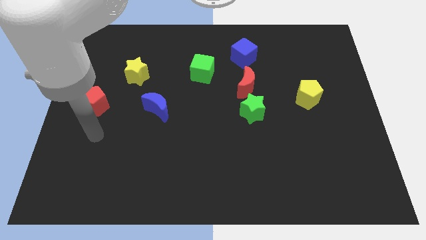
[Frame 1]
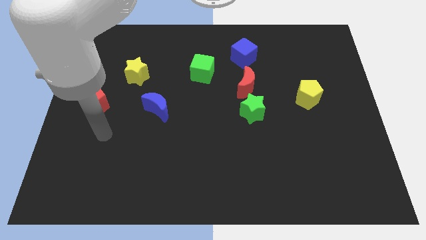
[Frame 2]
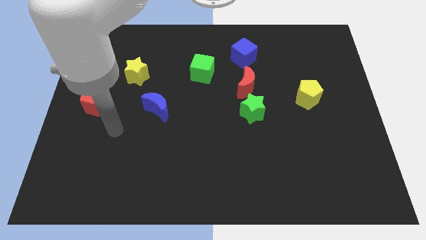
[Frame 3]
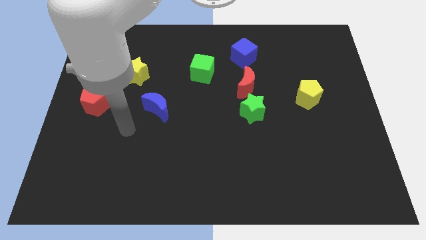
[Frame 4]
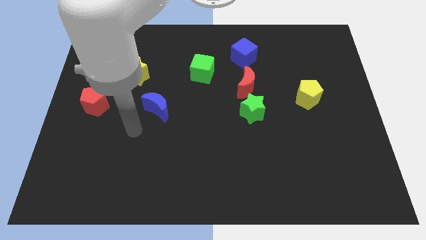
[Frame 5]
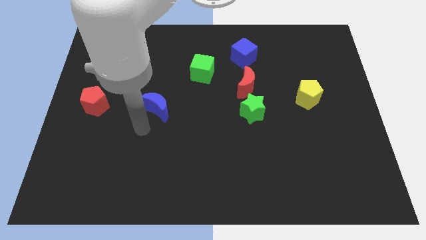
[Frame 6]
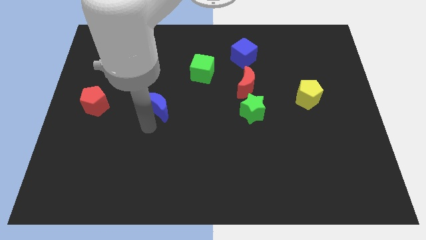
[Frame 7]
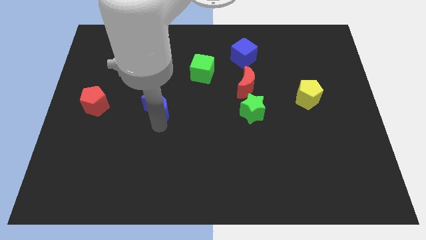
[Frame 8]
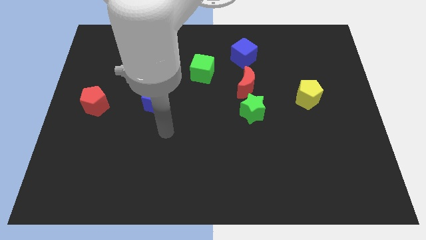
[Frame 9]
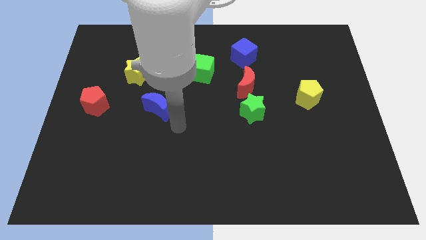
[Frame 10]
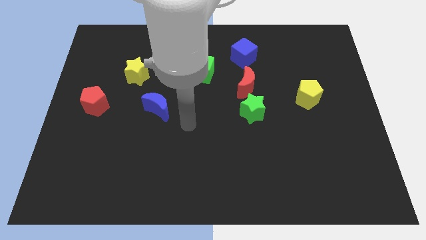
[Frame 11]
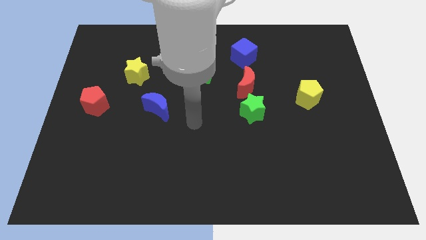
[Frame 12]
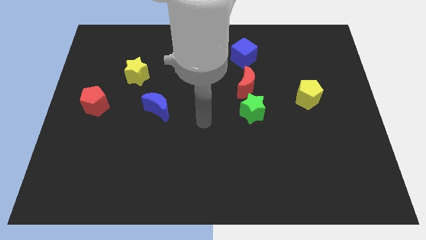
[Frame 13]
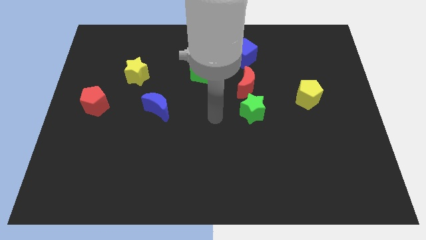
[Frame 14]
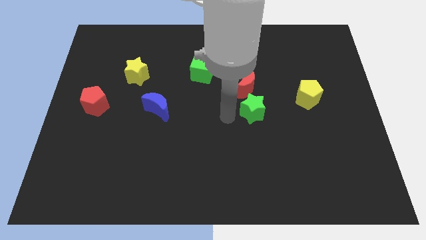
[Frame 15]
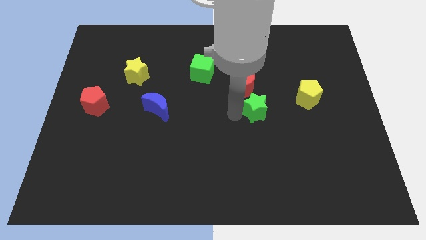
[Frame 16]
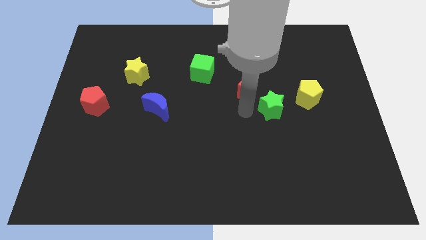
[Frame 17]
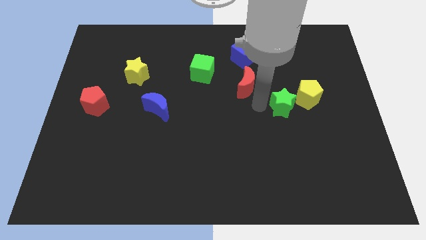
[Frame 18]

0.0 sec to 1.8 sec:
separate the red moon from the green star

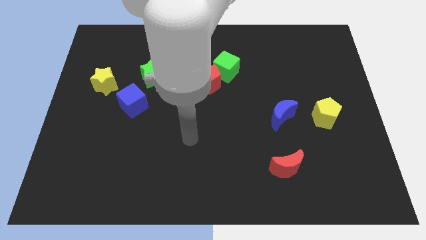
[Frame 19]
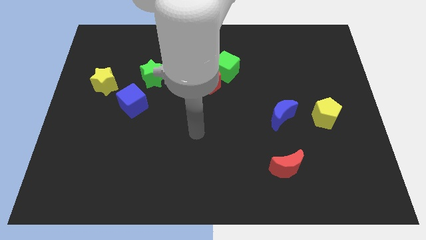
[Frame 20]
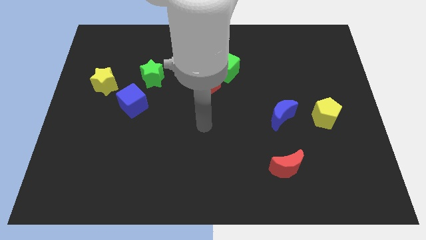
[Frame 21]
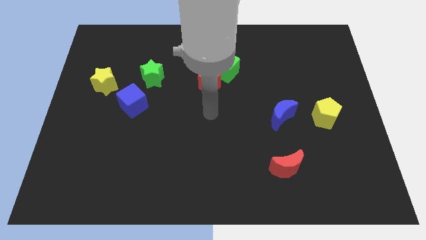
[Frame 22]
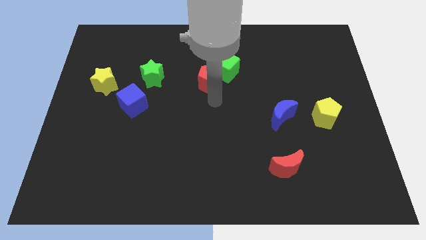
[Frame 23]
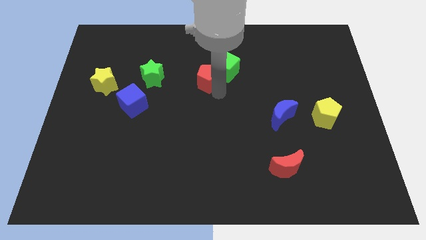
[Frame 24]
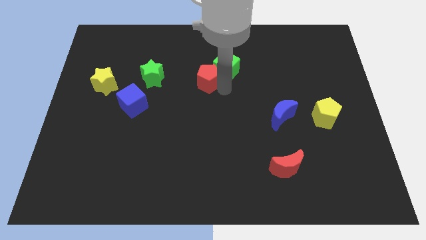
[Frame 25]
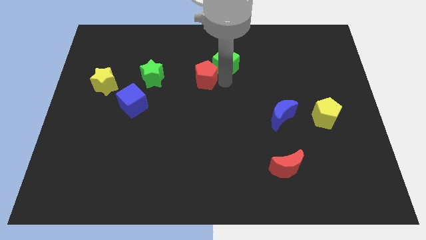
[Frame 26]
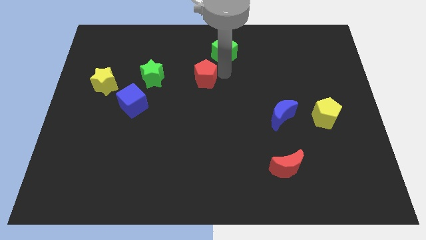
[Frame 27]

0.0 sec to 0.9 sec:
separate the red pentagon from the green cube

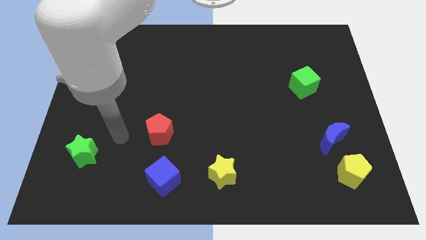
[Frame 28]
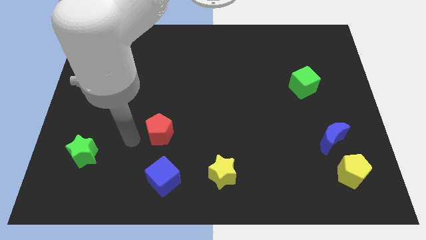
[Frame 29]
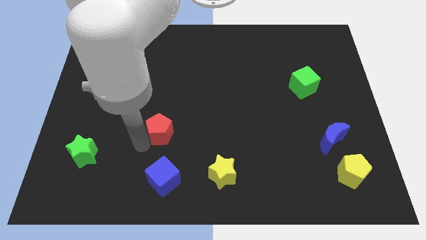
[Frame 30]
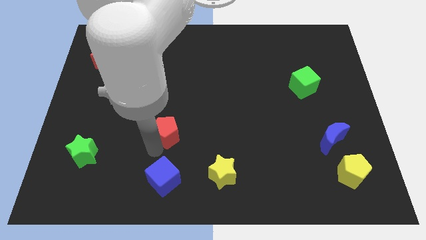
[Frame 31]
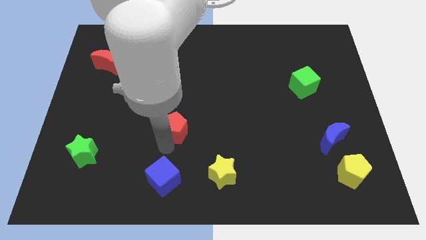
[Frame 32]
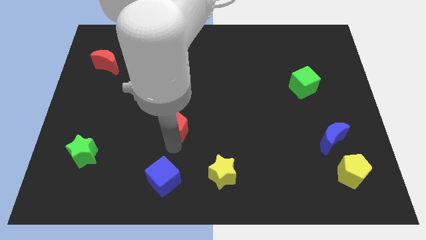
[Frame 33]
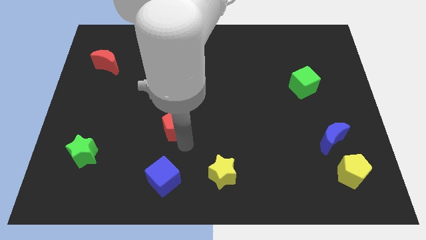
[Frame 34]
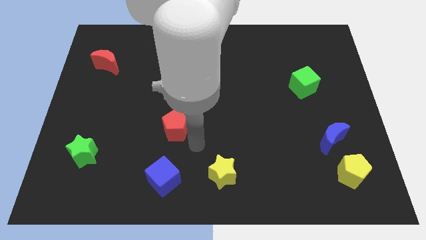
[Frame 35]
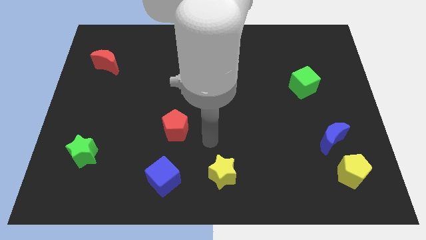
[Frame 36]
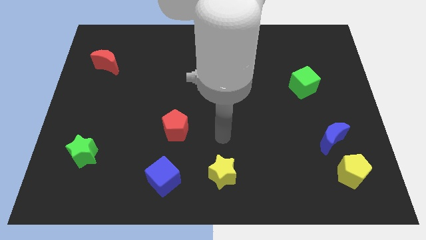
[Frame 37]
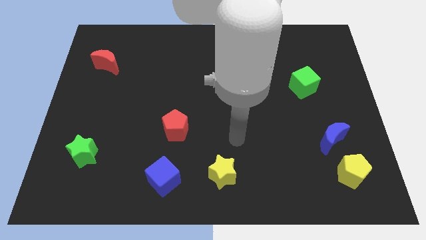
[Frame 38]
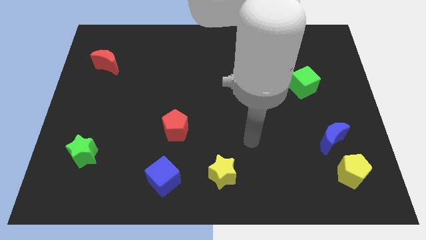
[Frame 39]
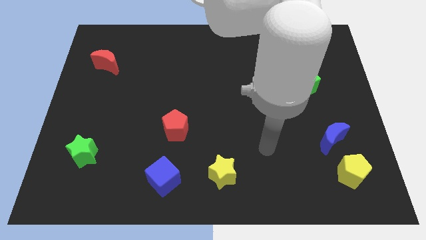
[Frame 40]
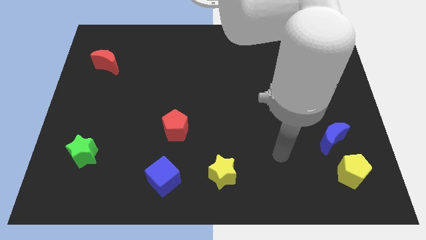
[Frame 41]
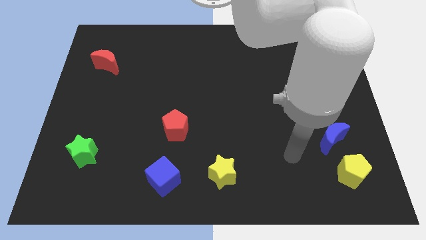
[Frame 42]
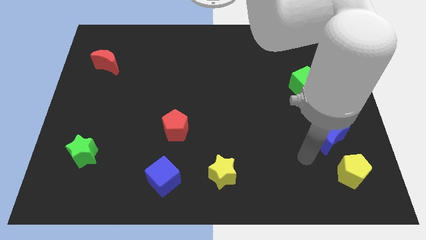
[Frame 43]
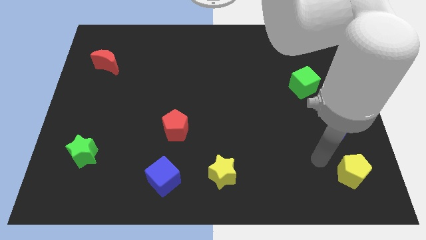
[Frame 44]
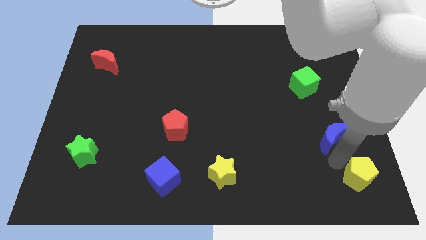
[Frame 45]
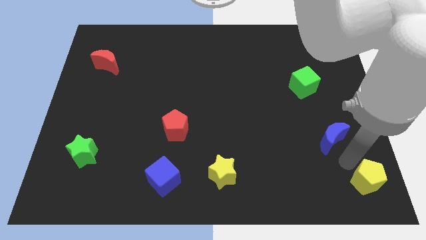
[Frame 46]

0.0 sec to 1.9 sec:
move the blue moon away from the yellow pentagon

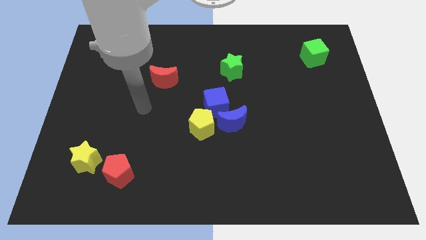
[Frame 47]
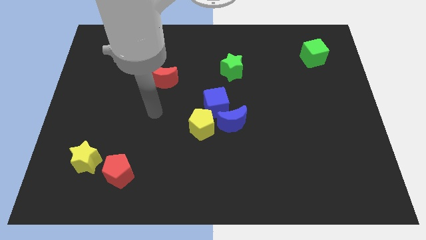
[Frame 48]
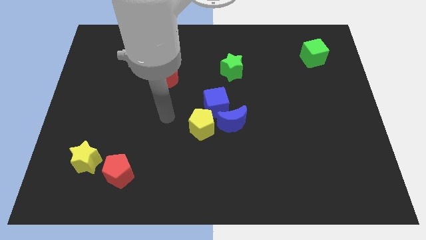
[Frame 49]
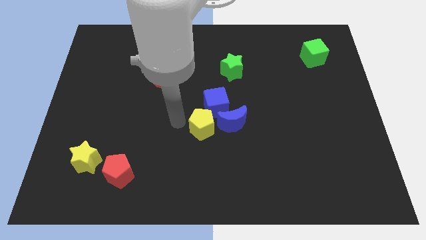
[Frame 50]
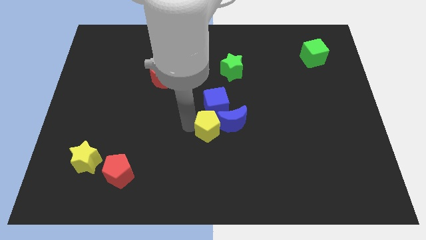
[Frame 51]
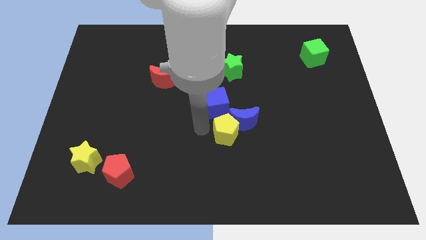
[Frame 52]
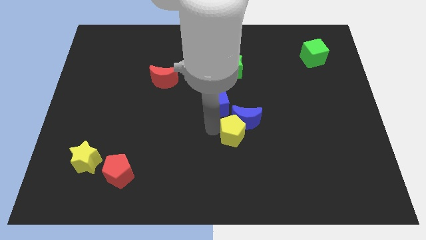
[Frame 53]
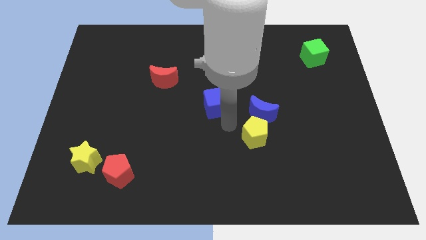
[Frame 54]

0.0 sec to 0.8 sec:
separate the blue cube from the blue moon and yellow pentagon

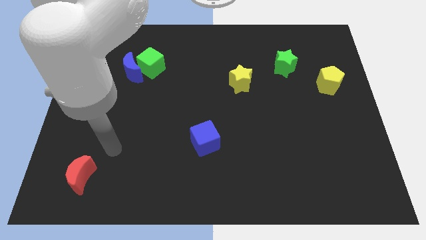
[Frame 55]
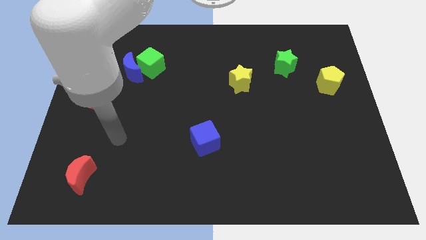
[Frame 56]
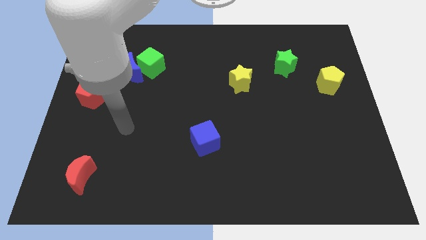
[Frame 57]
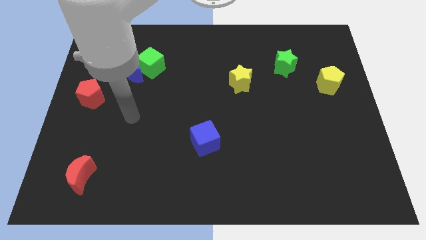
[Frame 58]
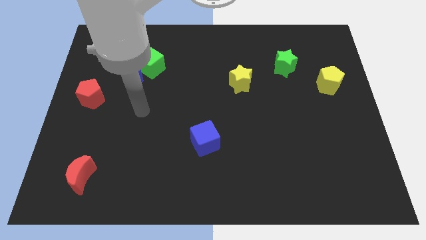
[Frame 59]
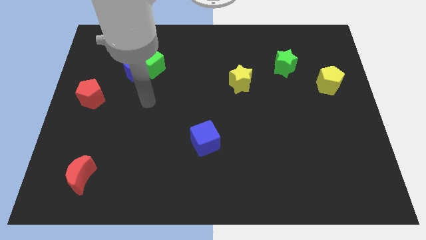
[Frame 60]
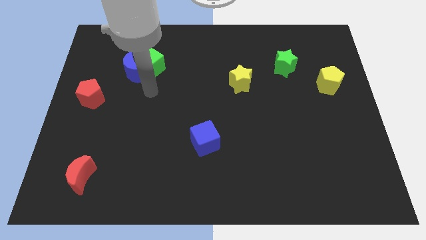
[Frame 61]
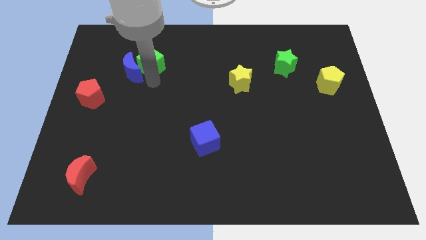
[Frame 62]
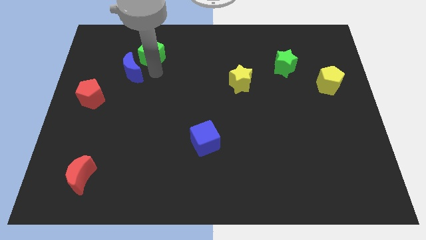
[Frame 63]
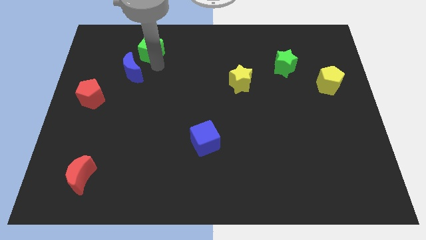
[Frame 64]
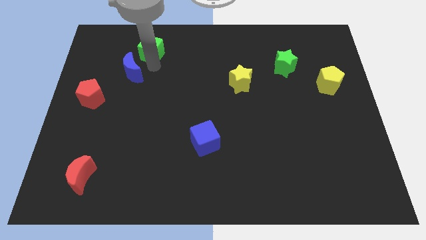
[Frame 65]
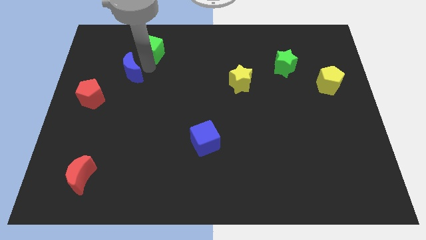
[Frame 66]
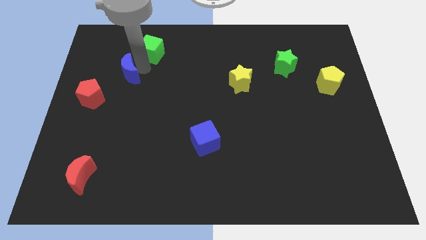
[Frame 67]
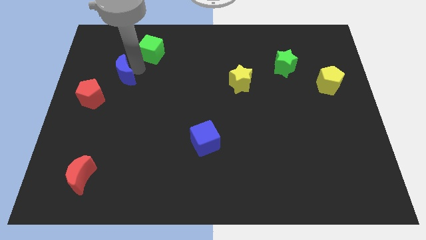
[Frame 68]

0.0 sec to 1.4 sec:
pull the blue moon apart from the green cube

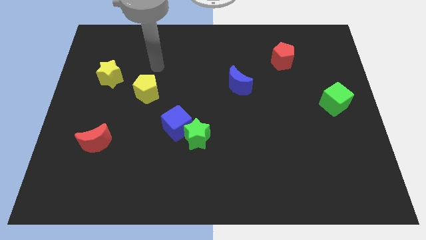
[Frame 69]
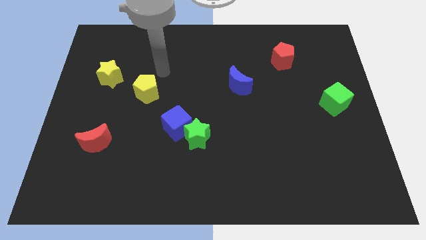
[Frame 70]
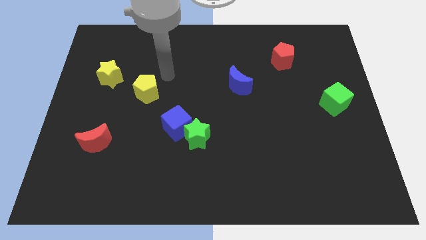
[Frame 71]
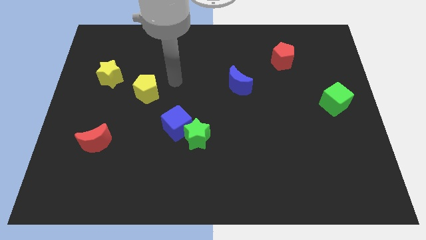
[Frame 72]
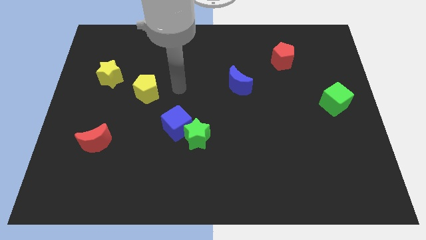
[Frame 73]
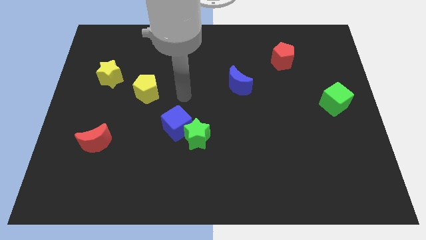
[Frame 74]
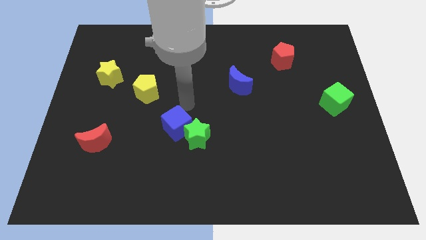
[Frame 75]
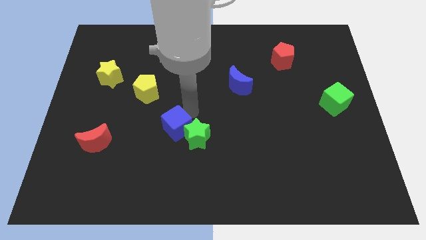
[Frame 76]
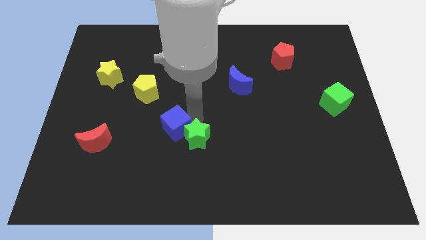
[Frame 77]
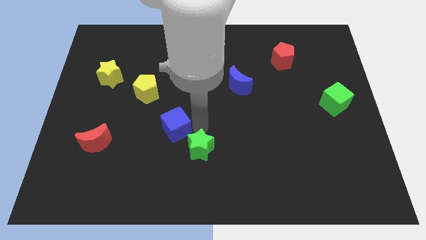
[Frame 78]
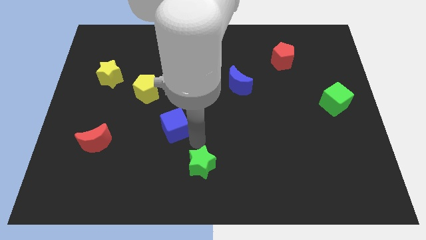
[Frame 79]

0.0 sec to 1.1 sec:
pull the blue cube apart from the green star

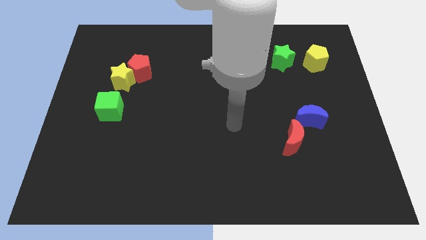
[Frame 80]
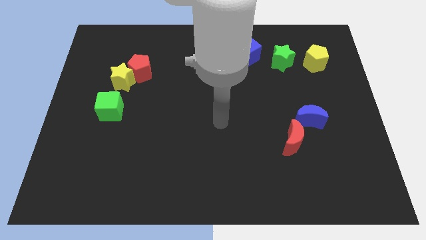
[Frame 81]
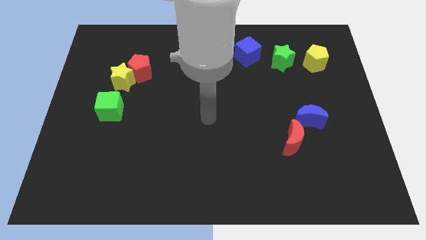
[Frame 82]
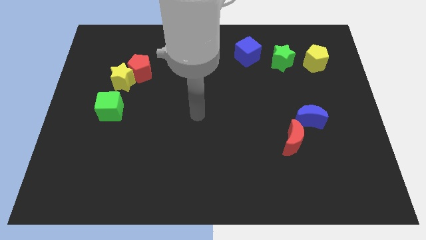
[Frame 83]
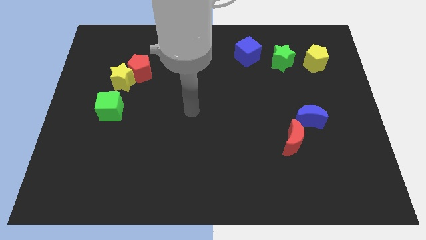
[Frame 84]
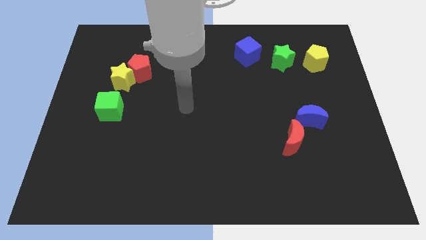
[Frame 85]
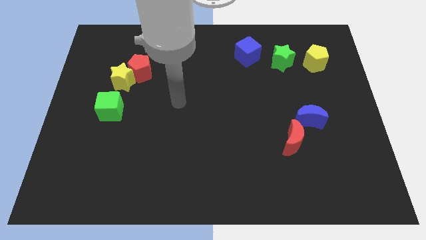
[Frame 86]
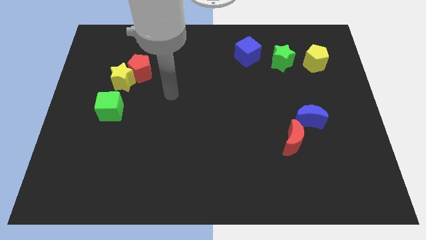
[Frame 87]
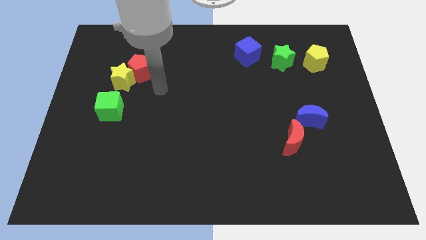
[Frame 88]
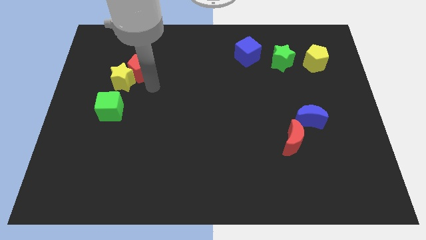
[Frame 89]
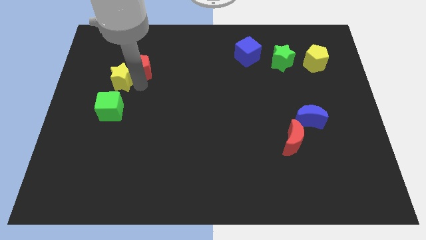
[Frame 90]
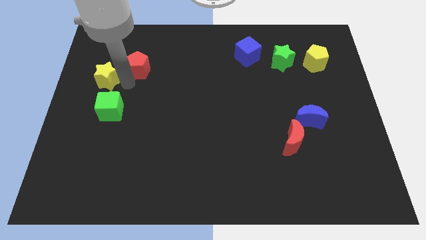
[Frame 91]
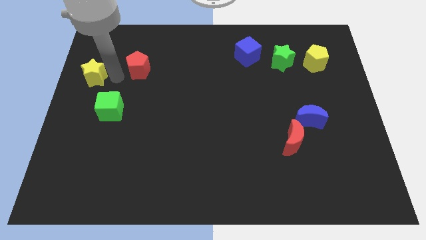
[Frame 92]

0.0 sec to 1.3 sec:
move the red pentagon away from the yellow star
